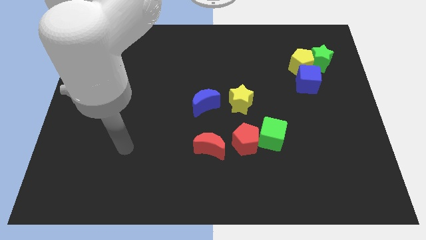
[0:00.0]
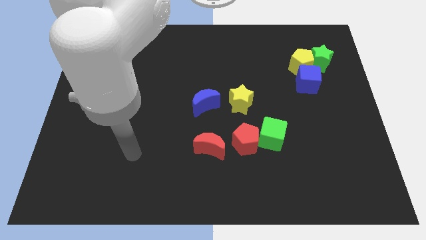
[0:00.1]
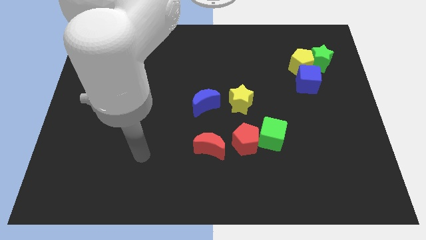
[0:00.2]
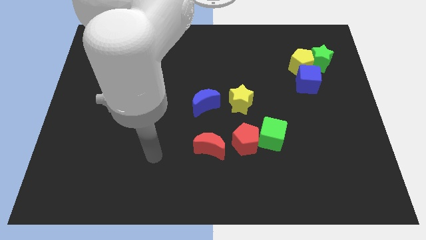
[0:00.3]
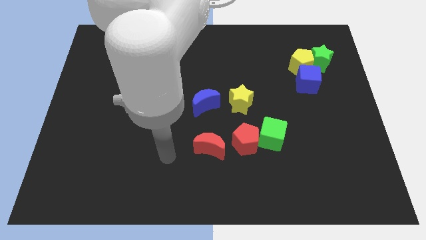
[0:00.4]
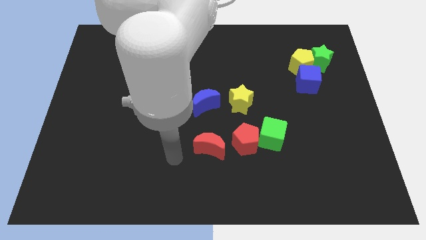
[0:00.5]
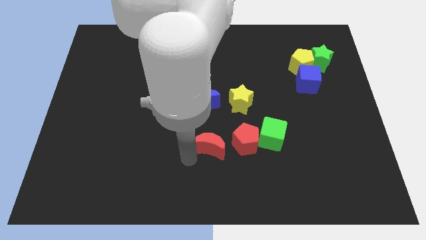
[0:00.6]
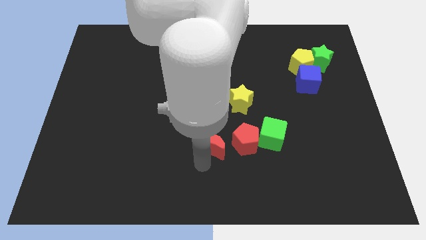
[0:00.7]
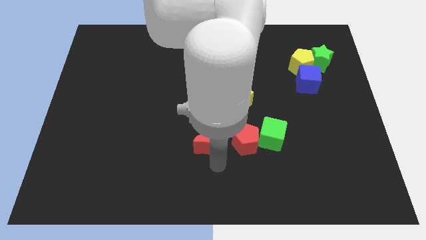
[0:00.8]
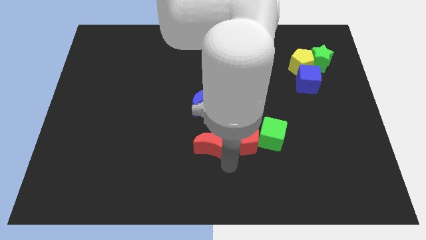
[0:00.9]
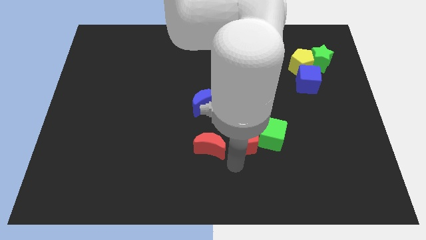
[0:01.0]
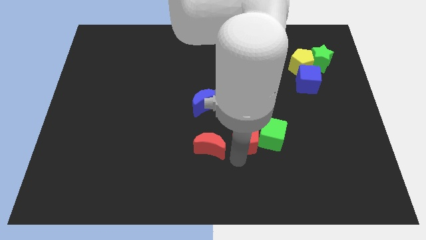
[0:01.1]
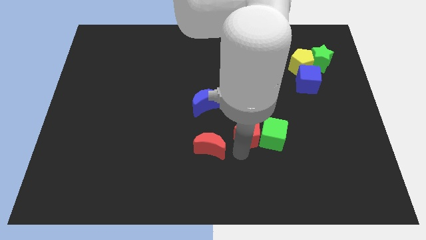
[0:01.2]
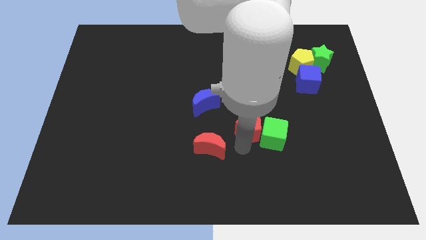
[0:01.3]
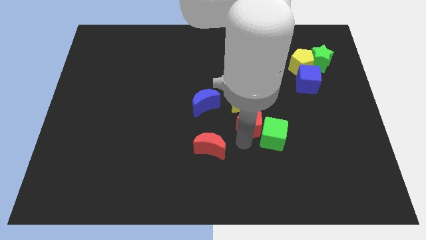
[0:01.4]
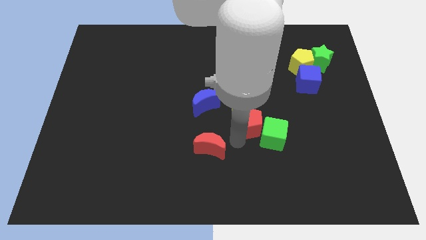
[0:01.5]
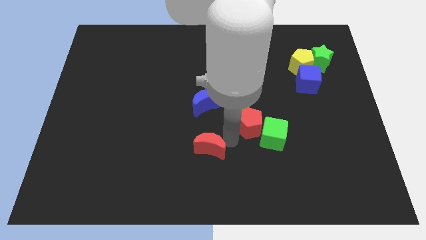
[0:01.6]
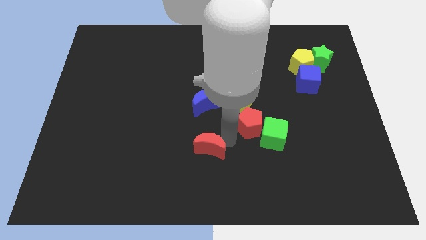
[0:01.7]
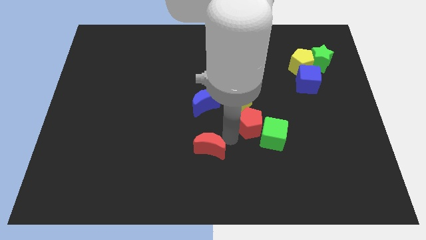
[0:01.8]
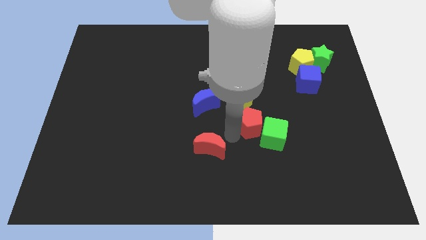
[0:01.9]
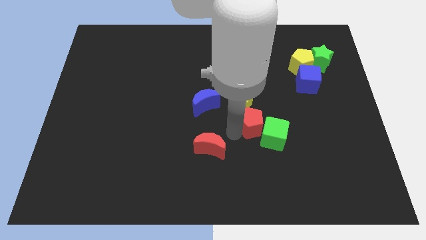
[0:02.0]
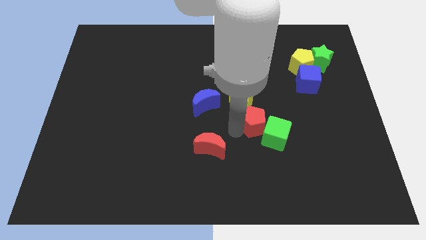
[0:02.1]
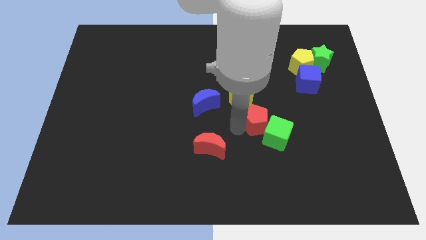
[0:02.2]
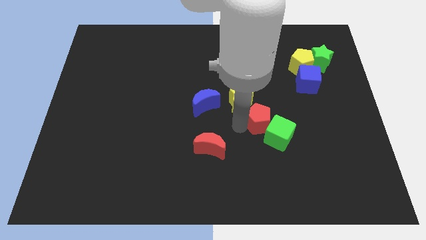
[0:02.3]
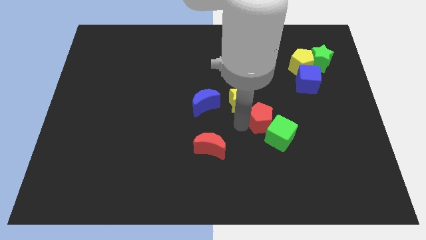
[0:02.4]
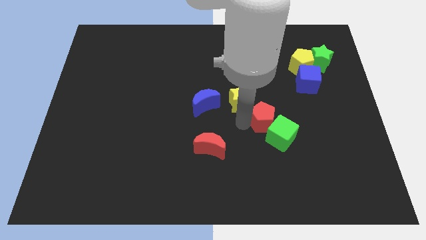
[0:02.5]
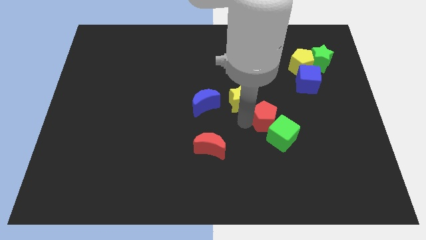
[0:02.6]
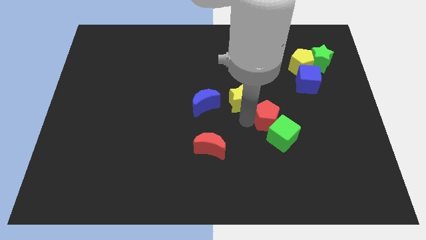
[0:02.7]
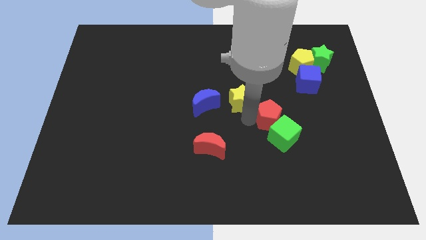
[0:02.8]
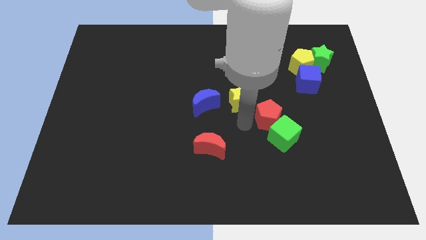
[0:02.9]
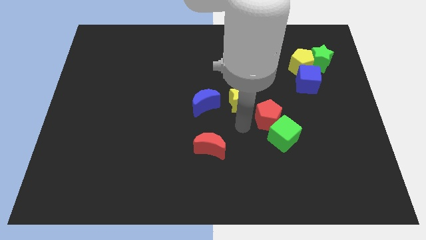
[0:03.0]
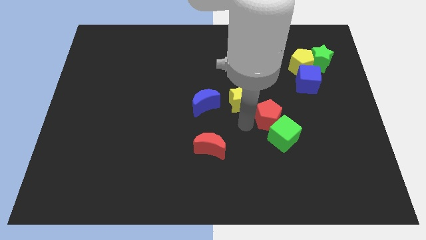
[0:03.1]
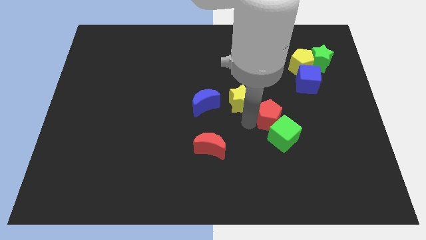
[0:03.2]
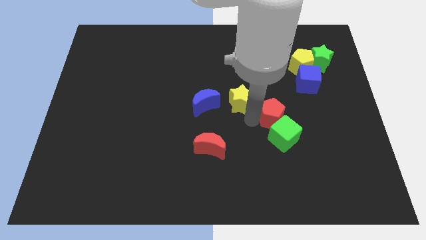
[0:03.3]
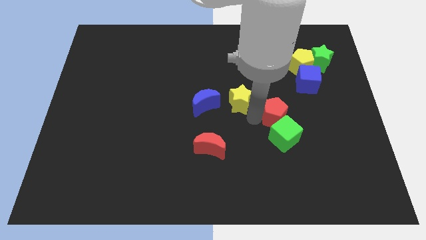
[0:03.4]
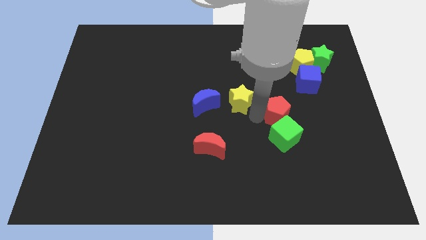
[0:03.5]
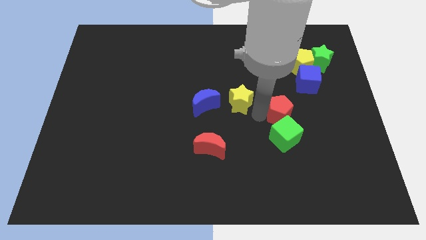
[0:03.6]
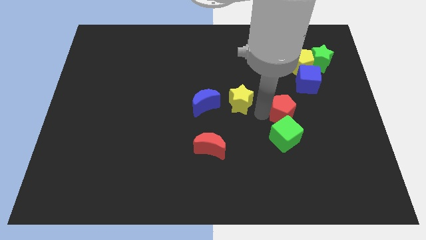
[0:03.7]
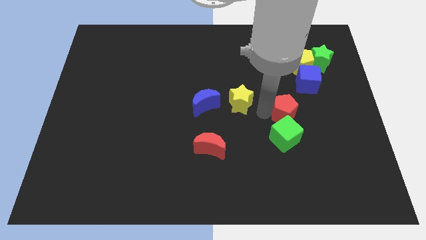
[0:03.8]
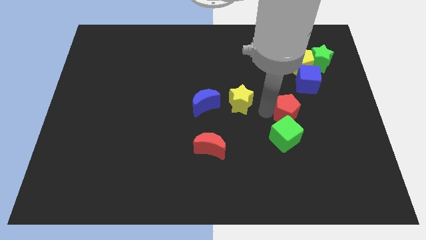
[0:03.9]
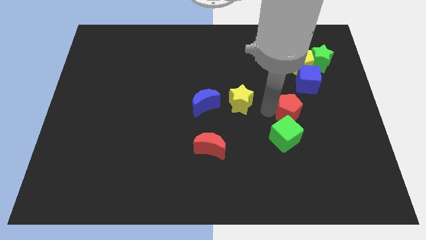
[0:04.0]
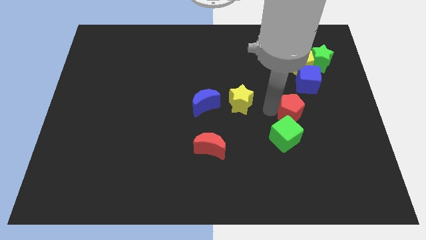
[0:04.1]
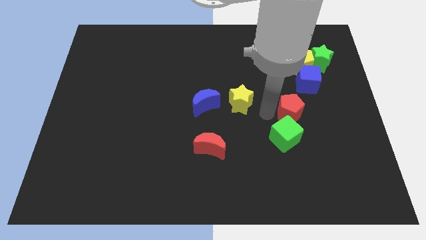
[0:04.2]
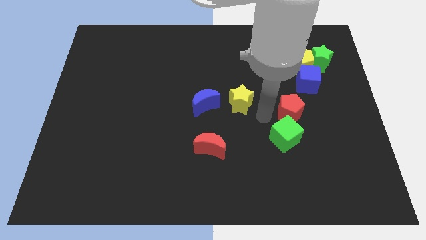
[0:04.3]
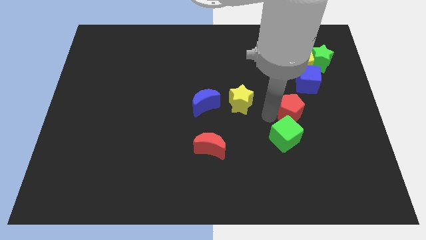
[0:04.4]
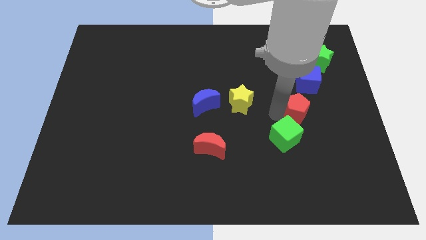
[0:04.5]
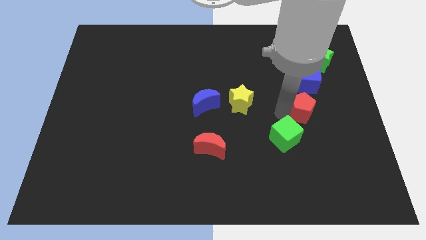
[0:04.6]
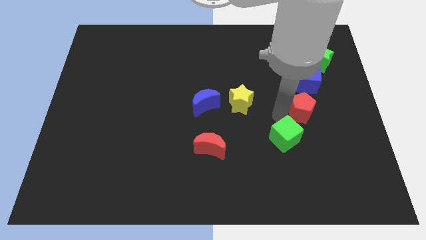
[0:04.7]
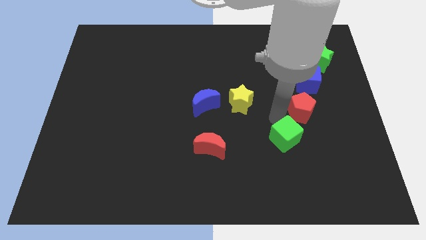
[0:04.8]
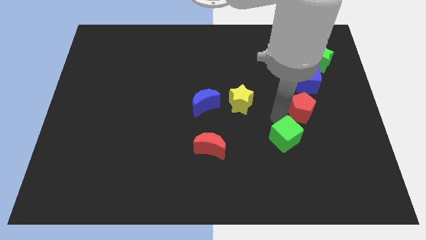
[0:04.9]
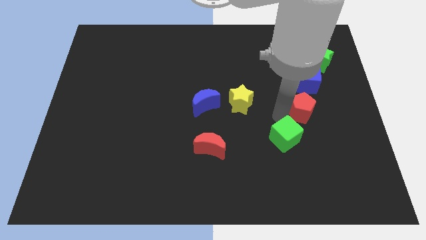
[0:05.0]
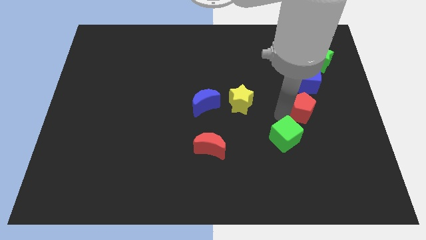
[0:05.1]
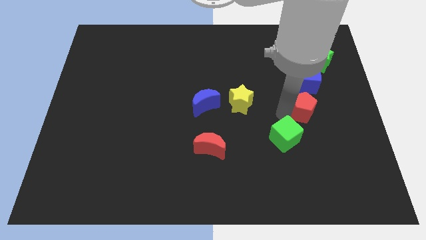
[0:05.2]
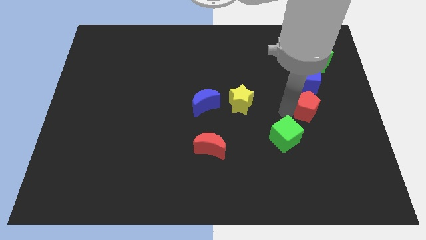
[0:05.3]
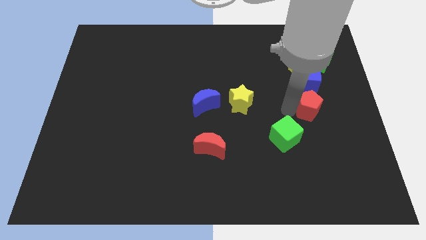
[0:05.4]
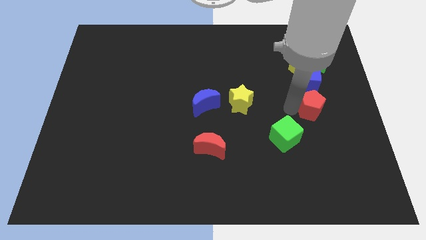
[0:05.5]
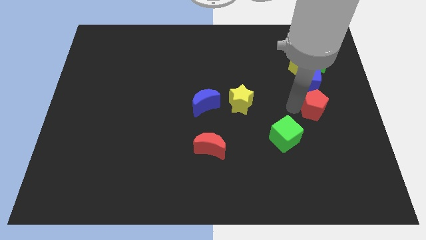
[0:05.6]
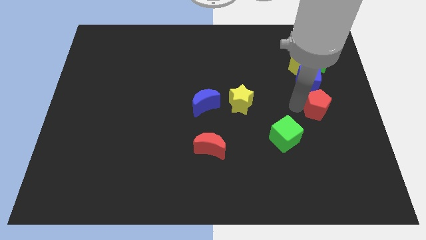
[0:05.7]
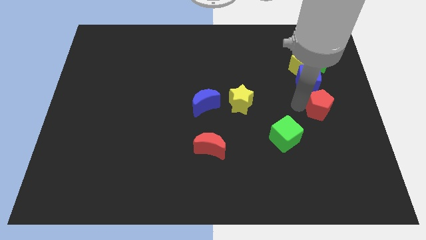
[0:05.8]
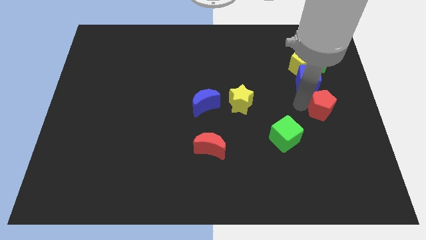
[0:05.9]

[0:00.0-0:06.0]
move the red pentagon to the right side of the board

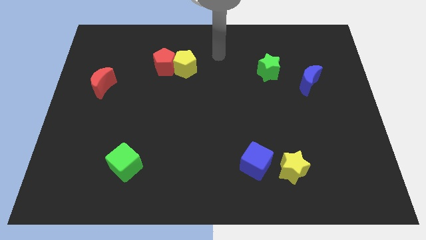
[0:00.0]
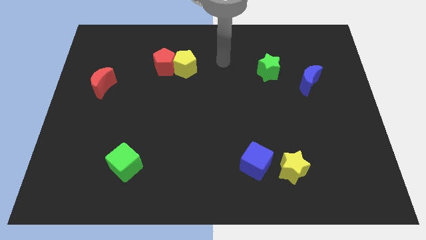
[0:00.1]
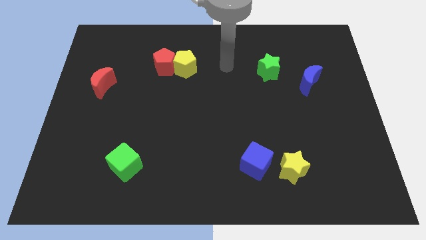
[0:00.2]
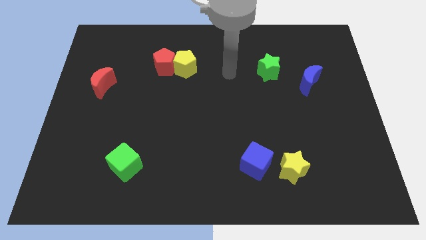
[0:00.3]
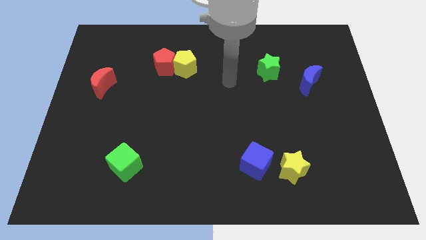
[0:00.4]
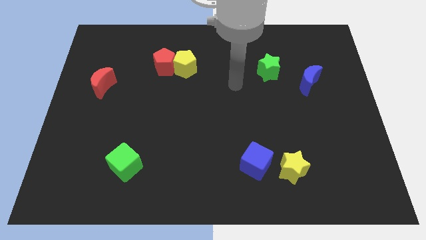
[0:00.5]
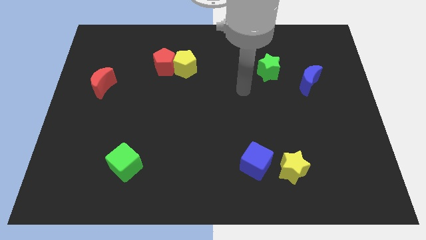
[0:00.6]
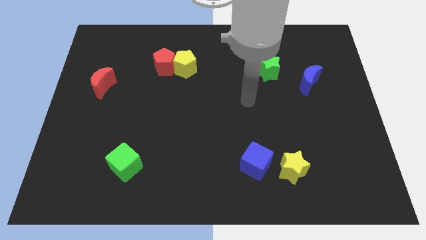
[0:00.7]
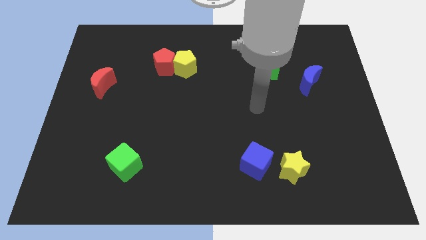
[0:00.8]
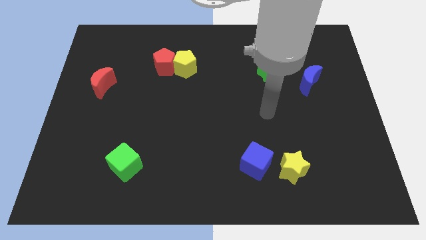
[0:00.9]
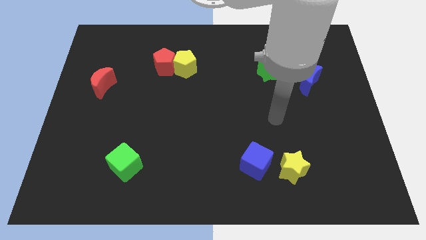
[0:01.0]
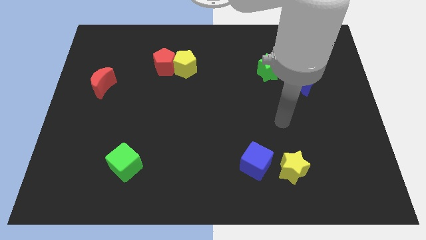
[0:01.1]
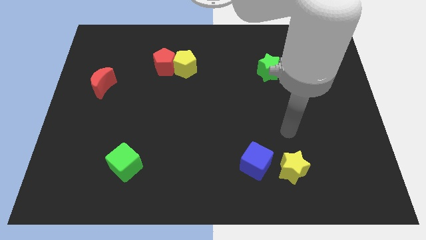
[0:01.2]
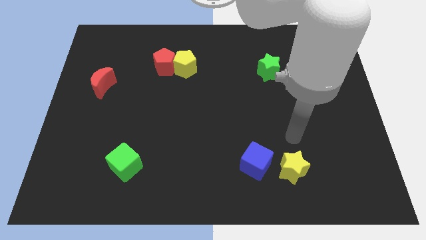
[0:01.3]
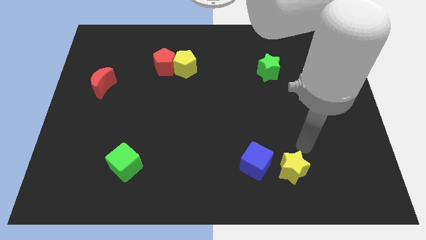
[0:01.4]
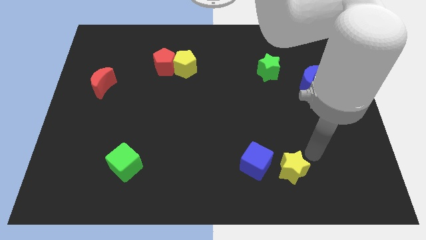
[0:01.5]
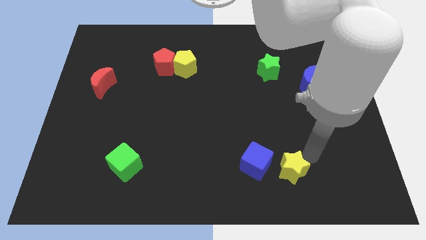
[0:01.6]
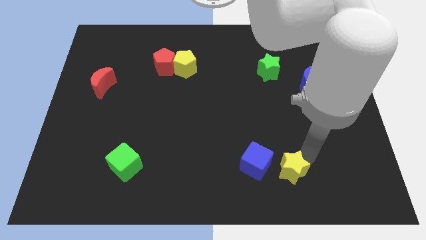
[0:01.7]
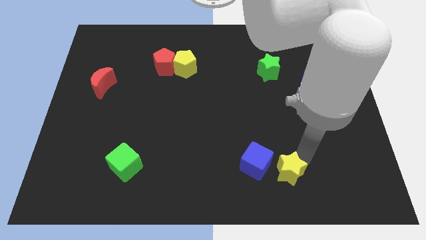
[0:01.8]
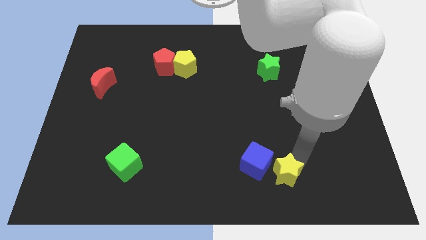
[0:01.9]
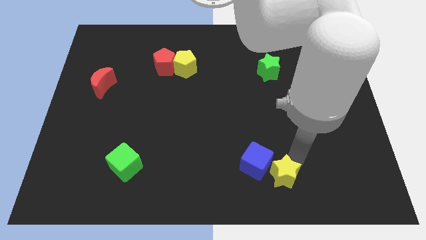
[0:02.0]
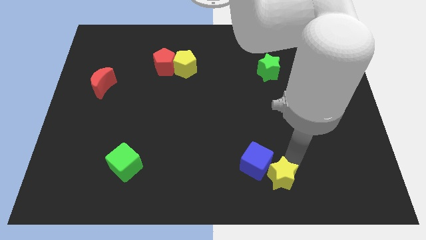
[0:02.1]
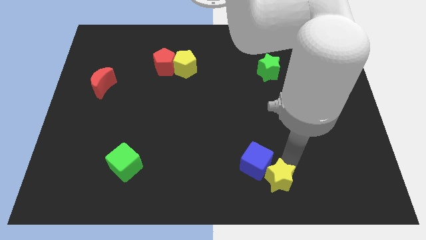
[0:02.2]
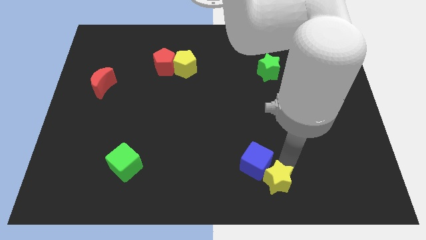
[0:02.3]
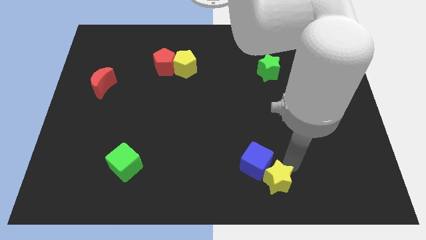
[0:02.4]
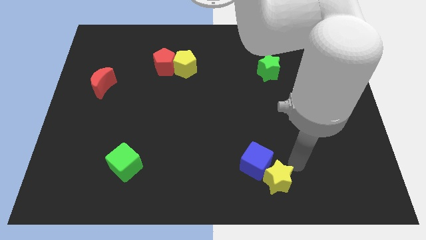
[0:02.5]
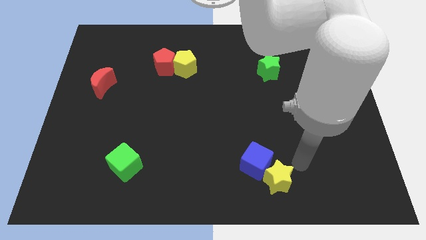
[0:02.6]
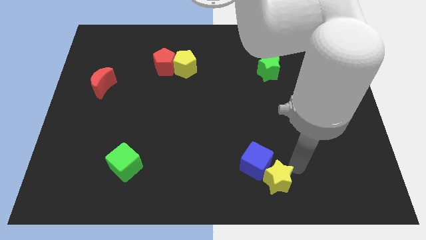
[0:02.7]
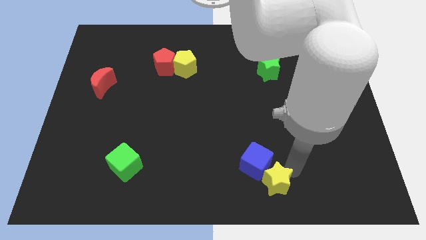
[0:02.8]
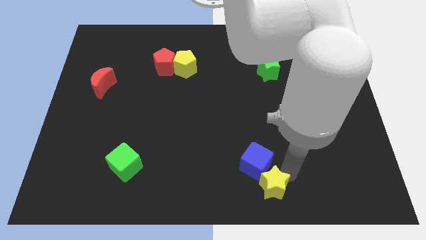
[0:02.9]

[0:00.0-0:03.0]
slide the yellow star to the bottom
